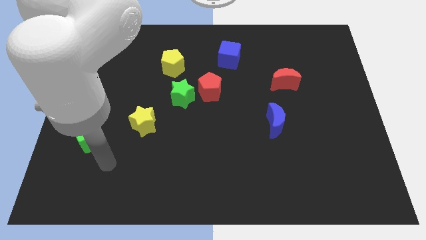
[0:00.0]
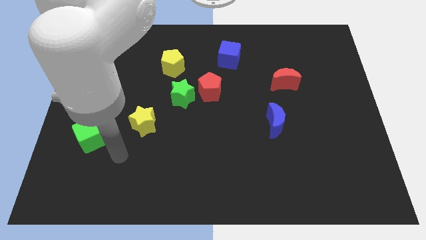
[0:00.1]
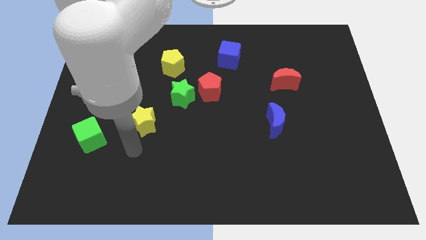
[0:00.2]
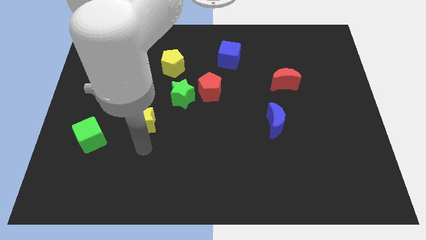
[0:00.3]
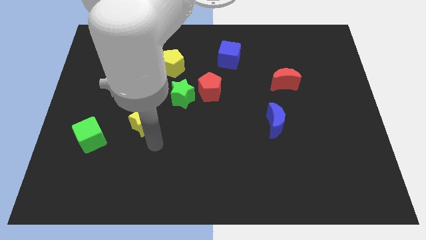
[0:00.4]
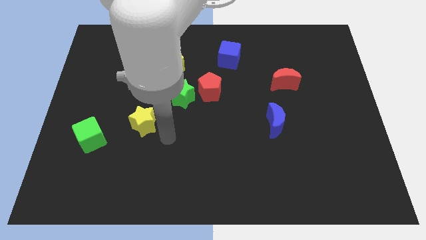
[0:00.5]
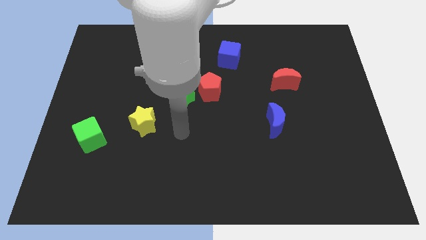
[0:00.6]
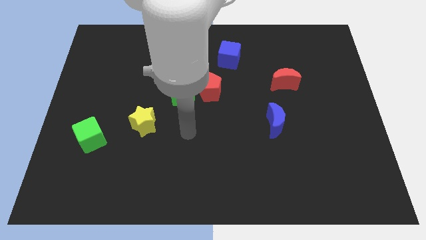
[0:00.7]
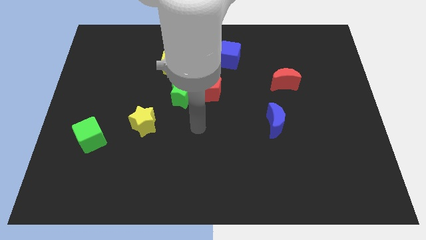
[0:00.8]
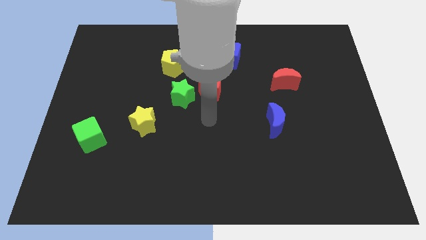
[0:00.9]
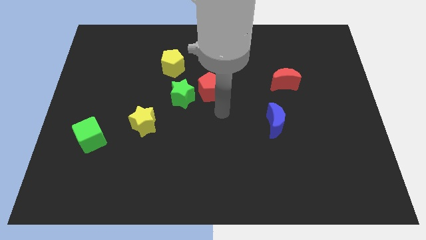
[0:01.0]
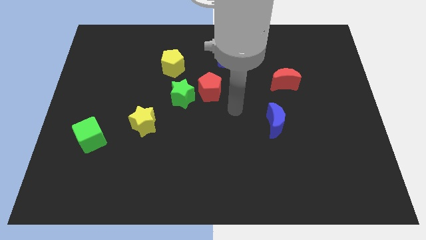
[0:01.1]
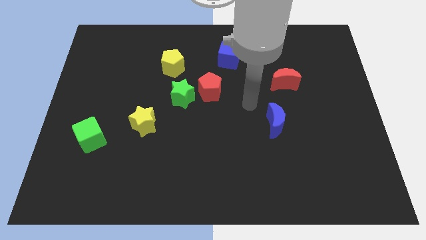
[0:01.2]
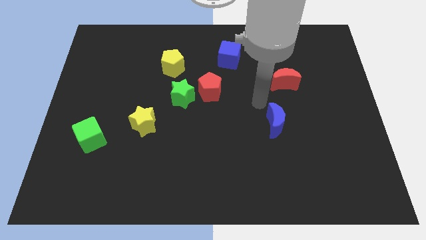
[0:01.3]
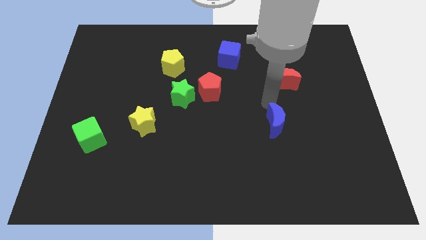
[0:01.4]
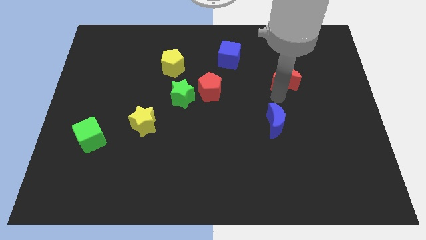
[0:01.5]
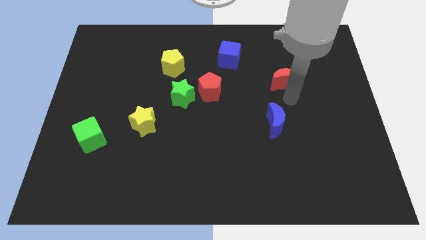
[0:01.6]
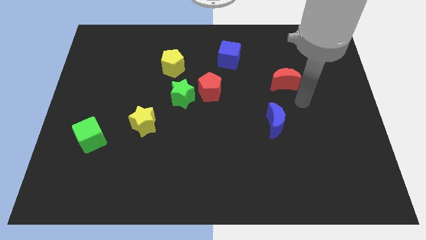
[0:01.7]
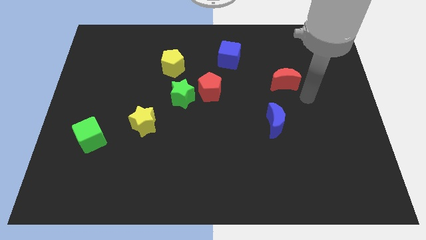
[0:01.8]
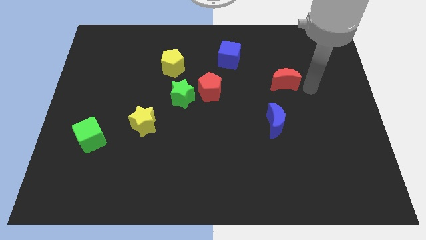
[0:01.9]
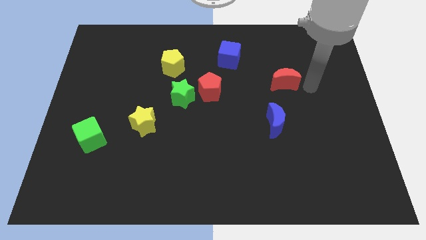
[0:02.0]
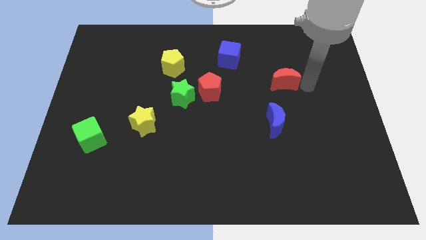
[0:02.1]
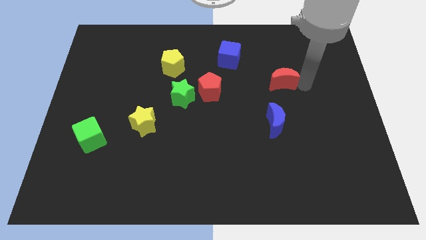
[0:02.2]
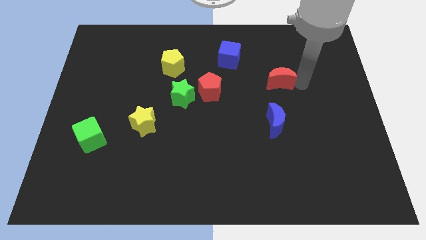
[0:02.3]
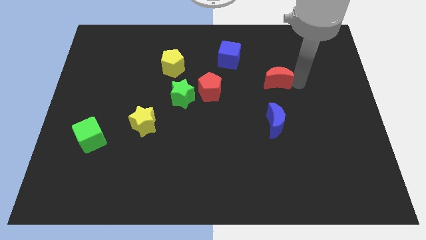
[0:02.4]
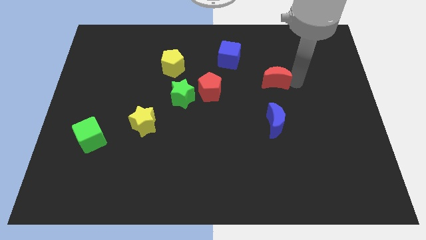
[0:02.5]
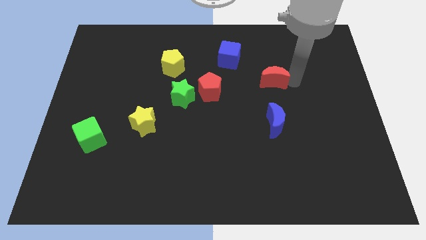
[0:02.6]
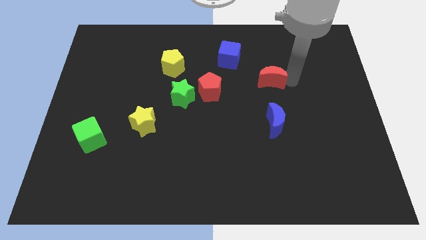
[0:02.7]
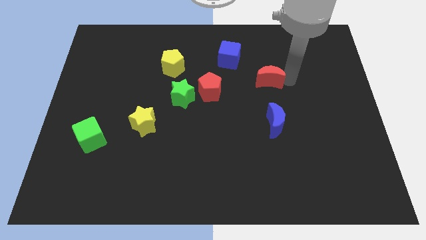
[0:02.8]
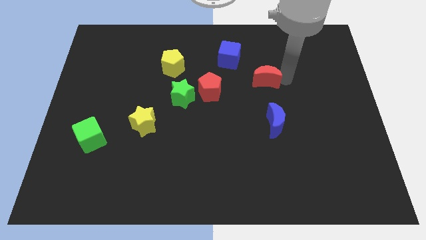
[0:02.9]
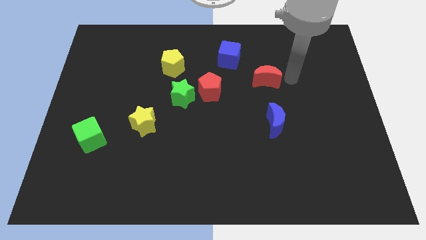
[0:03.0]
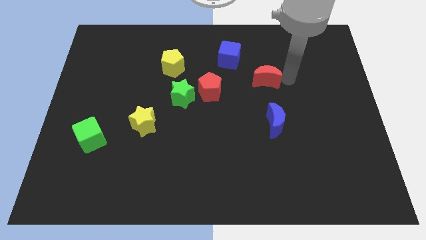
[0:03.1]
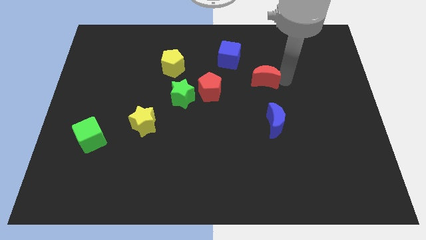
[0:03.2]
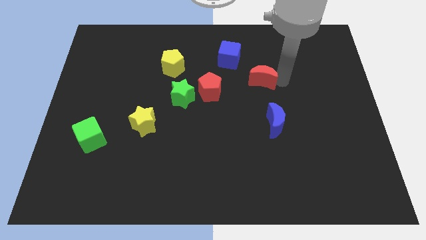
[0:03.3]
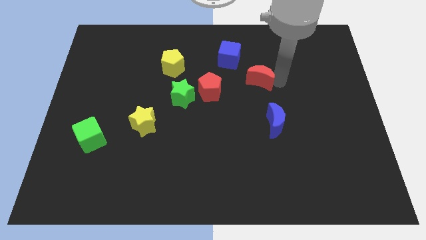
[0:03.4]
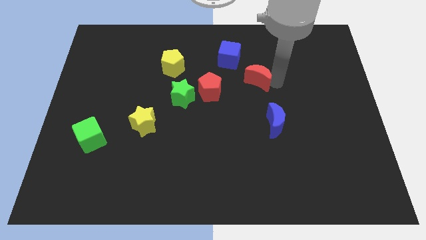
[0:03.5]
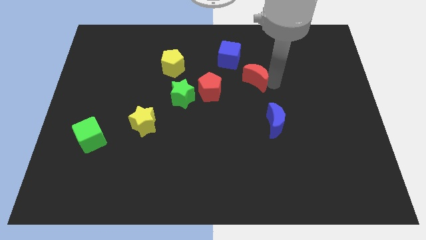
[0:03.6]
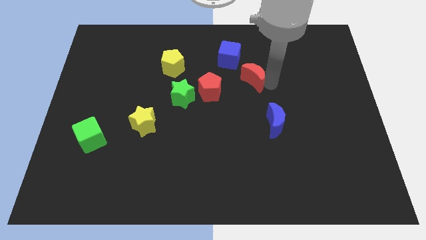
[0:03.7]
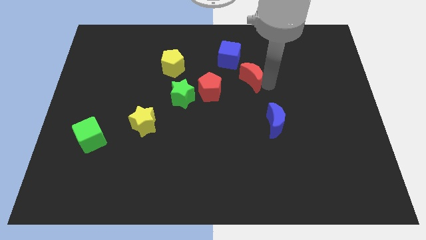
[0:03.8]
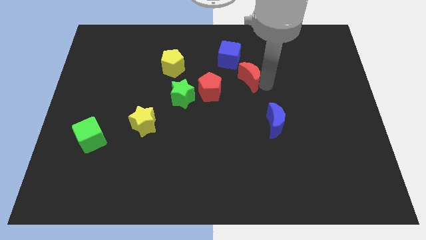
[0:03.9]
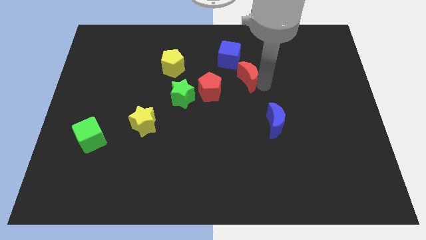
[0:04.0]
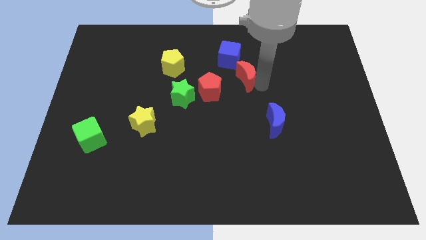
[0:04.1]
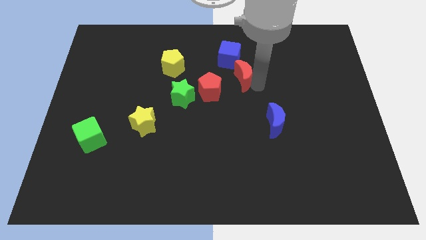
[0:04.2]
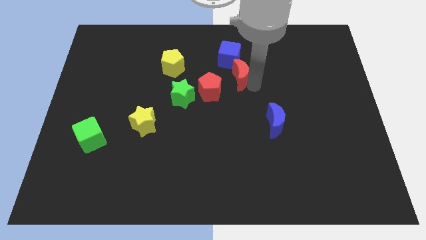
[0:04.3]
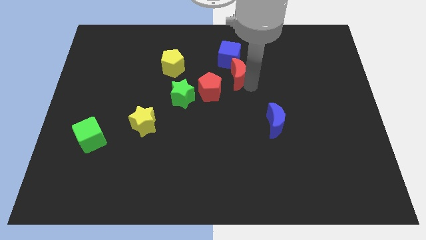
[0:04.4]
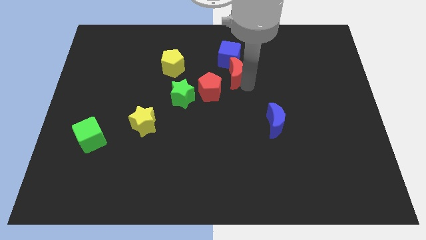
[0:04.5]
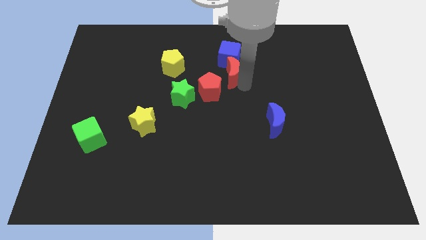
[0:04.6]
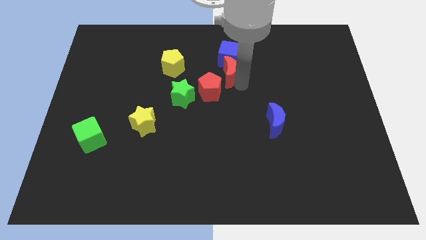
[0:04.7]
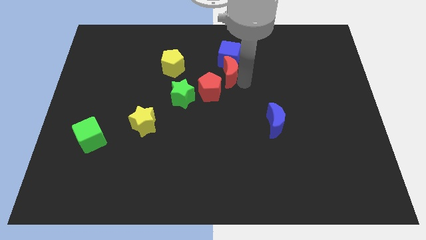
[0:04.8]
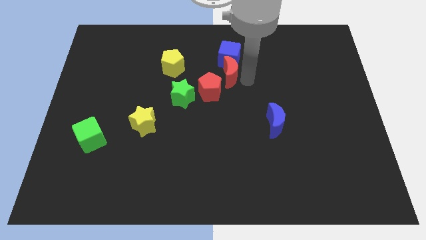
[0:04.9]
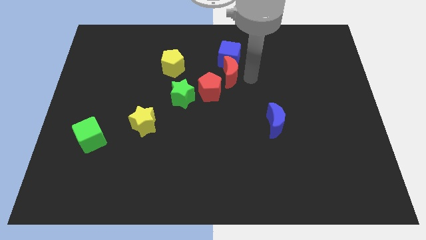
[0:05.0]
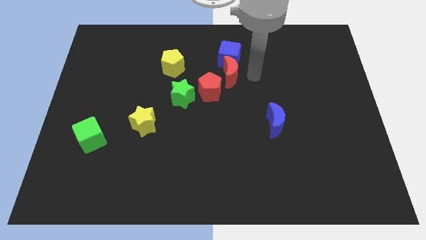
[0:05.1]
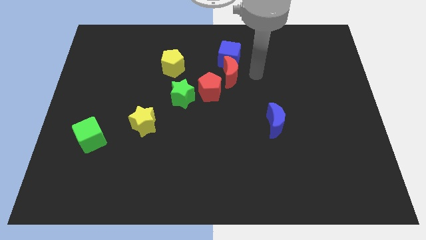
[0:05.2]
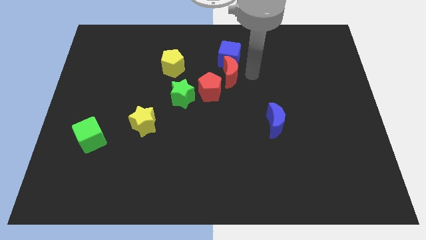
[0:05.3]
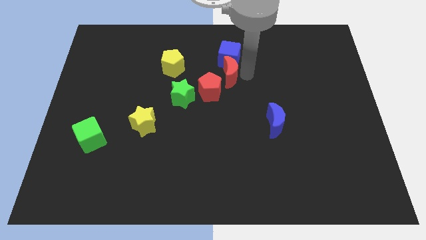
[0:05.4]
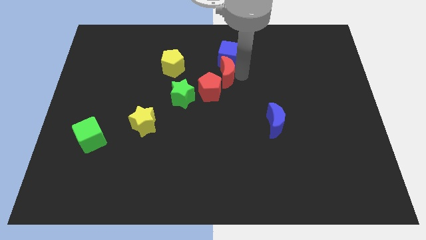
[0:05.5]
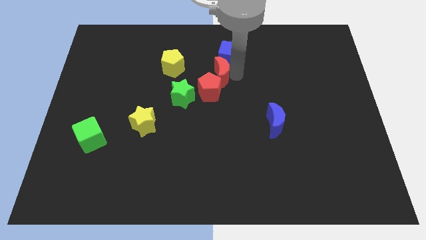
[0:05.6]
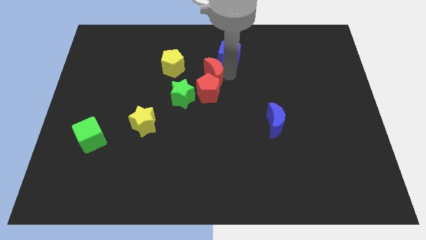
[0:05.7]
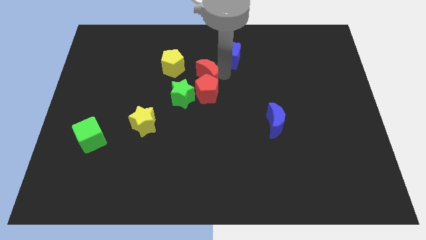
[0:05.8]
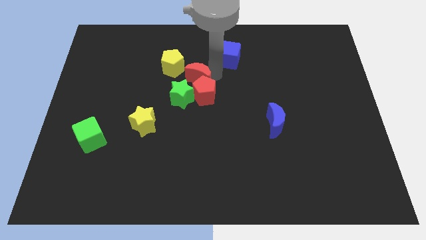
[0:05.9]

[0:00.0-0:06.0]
slide the red moon to the left

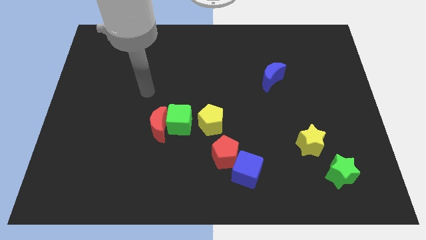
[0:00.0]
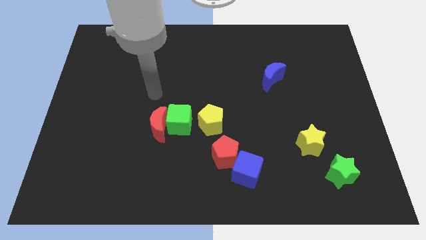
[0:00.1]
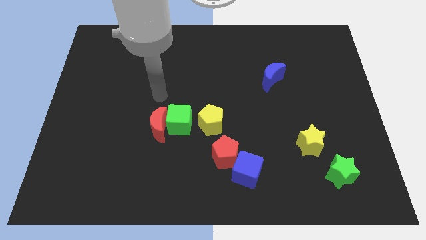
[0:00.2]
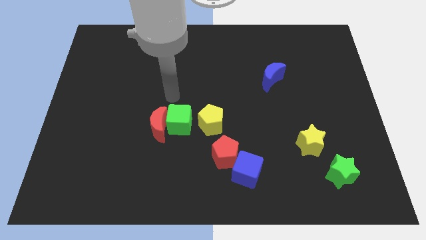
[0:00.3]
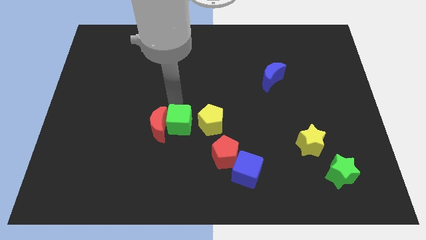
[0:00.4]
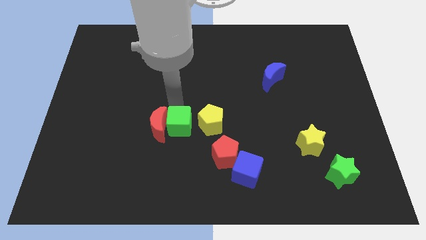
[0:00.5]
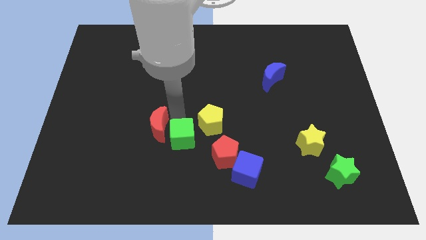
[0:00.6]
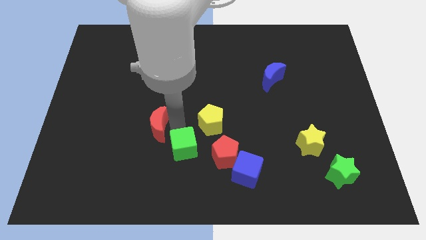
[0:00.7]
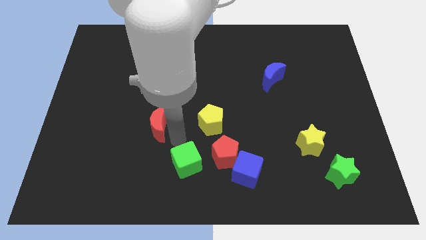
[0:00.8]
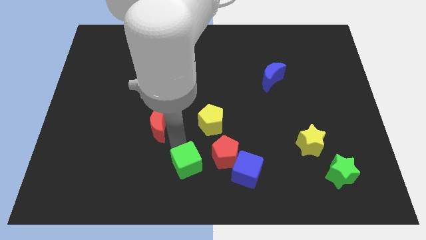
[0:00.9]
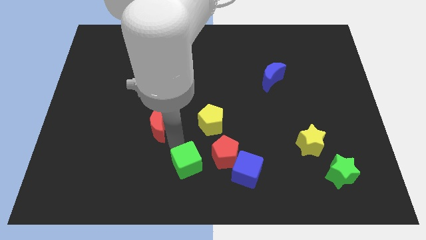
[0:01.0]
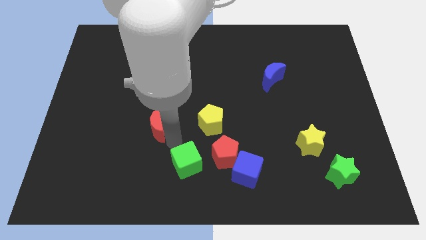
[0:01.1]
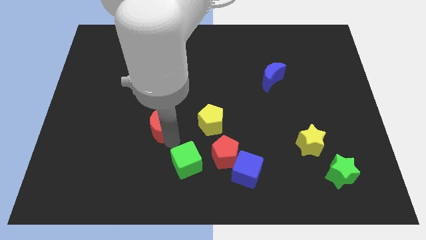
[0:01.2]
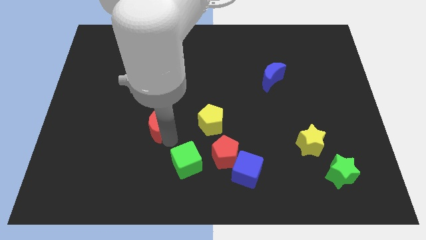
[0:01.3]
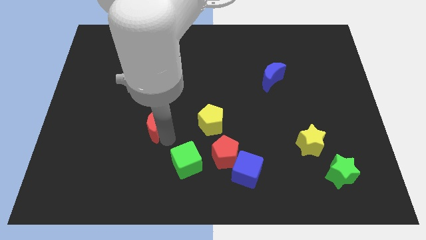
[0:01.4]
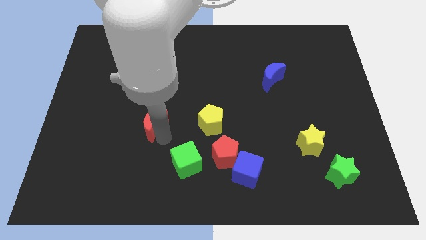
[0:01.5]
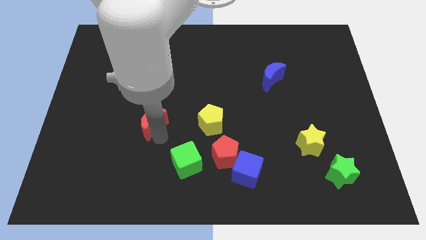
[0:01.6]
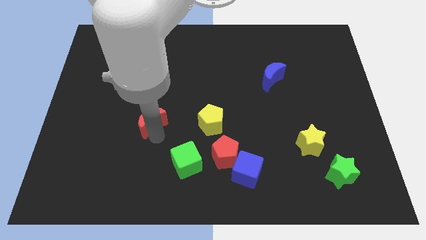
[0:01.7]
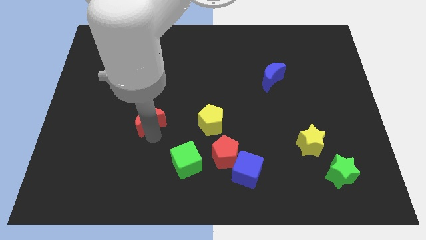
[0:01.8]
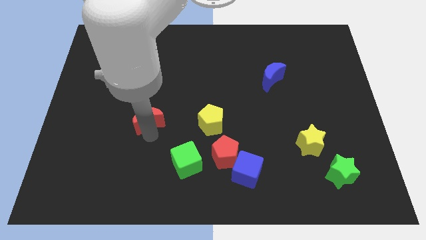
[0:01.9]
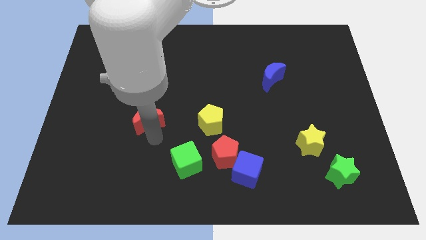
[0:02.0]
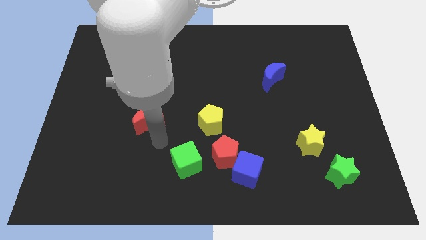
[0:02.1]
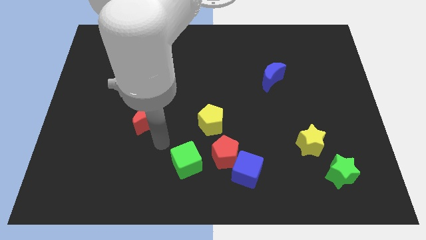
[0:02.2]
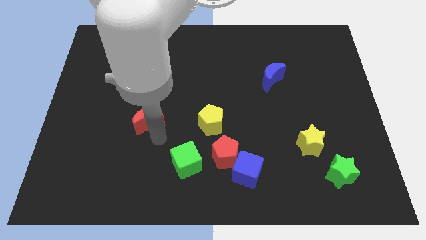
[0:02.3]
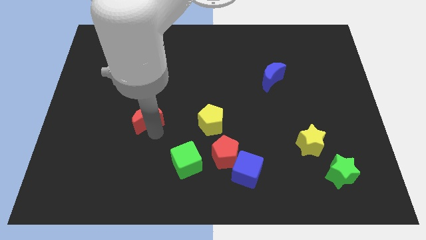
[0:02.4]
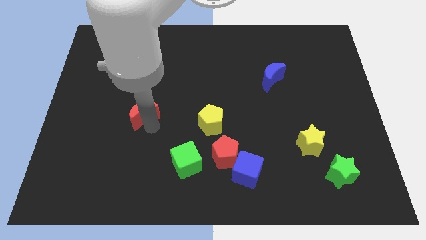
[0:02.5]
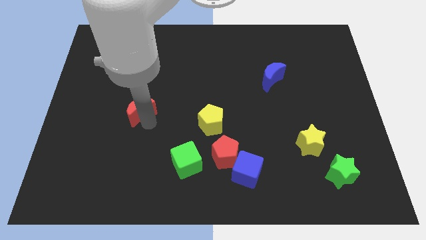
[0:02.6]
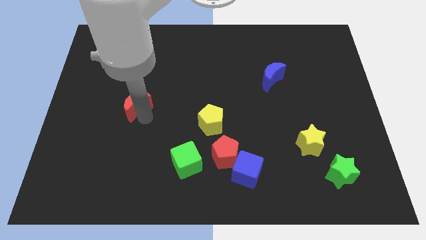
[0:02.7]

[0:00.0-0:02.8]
slightly move the red moon diagonally up and left
